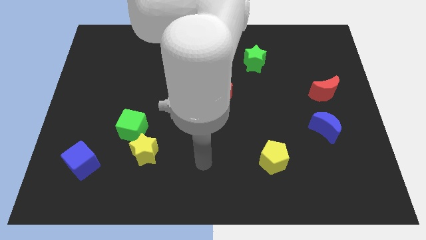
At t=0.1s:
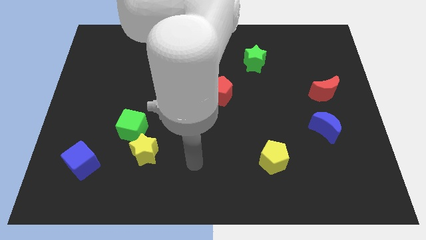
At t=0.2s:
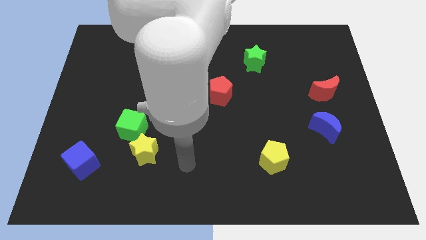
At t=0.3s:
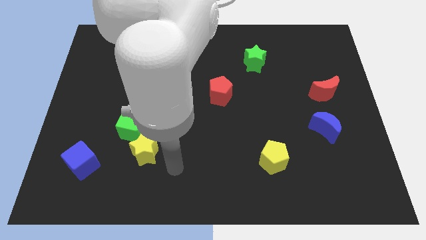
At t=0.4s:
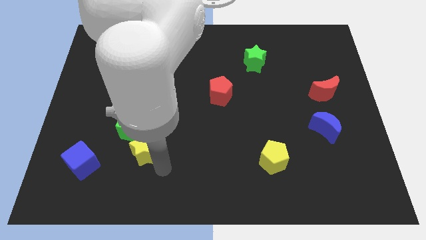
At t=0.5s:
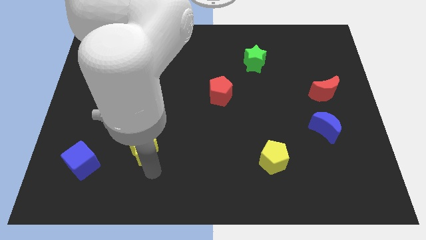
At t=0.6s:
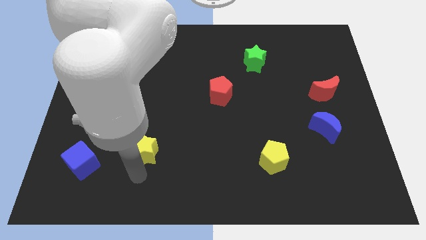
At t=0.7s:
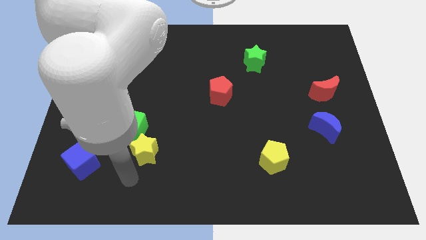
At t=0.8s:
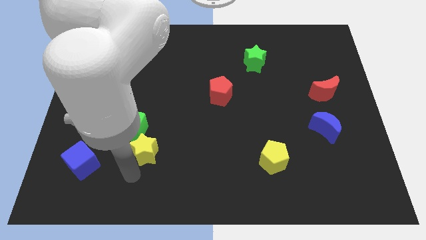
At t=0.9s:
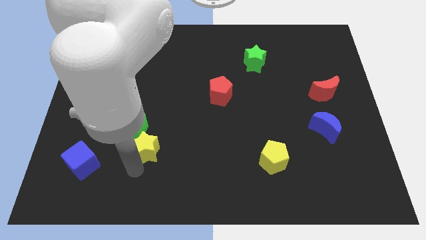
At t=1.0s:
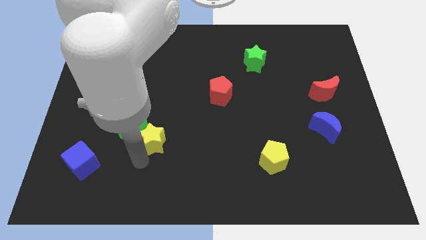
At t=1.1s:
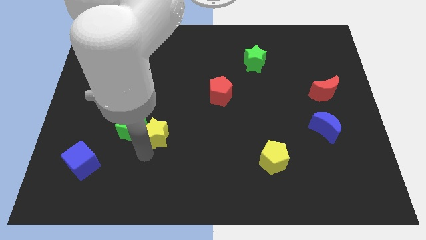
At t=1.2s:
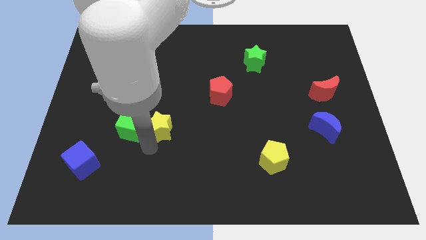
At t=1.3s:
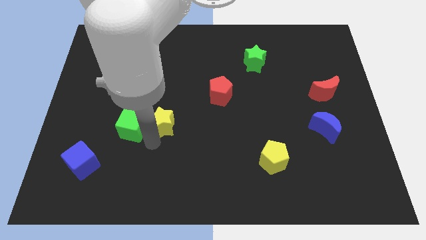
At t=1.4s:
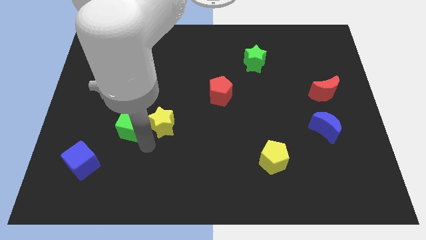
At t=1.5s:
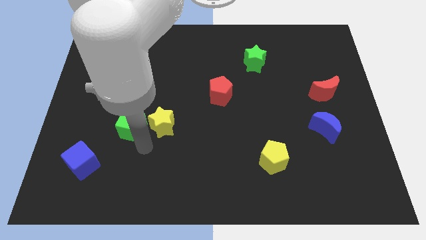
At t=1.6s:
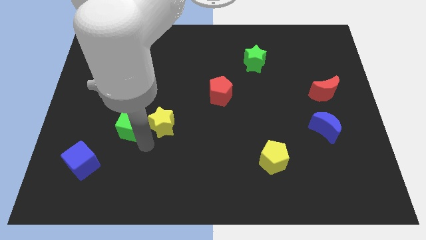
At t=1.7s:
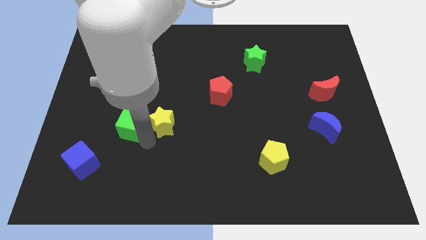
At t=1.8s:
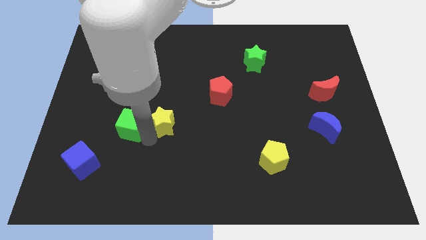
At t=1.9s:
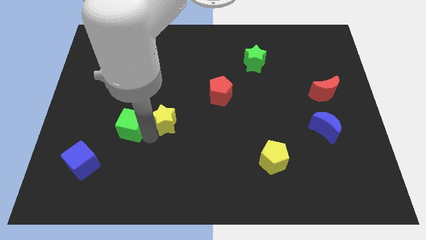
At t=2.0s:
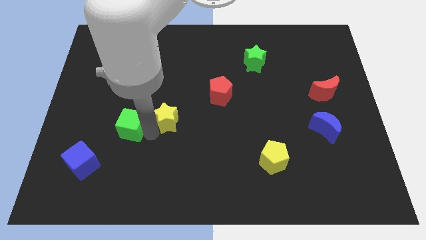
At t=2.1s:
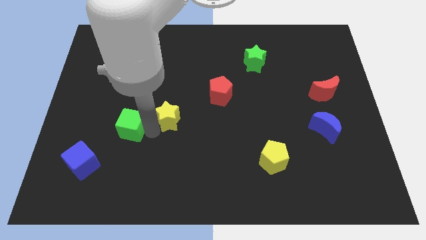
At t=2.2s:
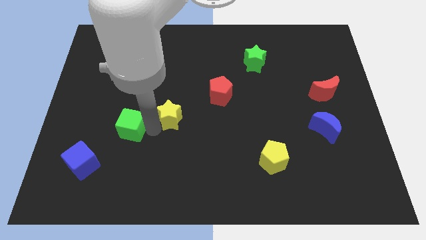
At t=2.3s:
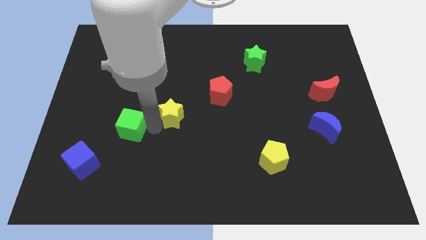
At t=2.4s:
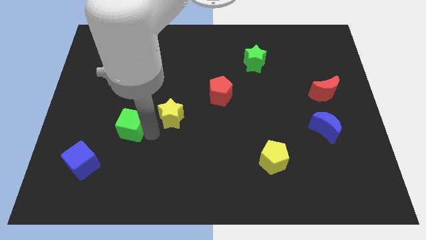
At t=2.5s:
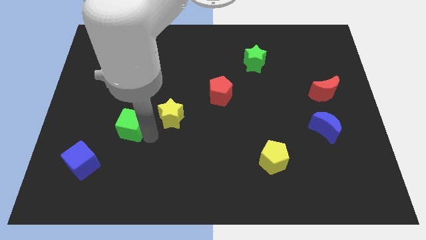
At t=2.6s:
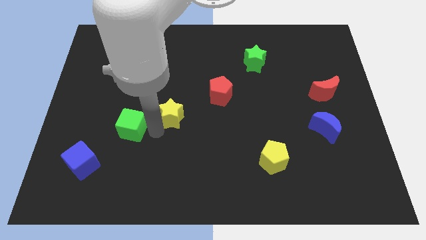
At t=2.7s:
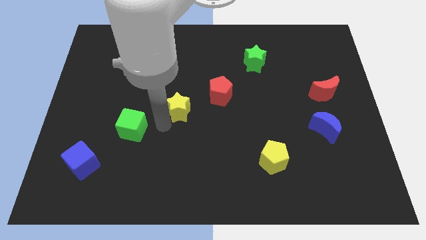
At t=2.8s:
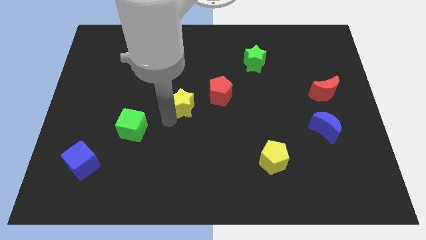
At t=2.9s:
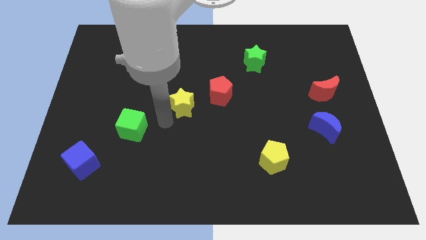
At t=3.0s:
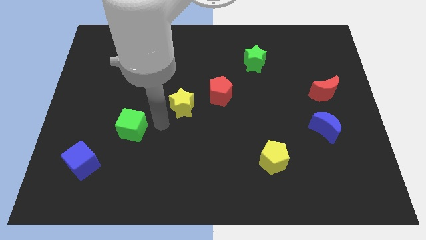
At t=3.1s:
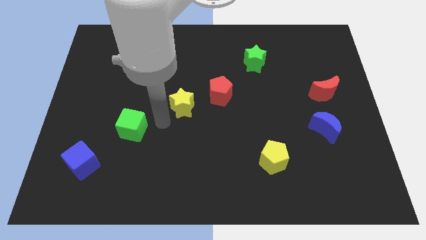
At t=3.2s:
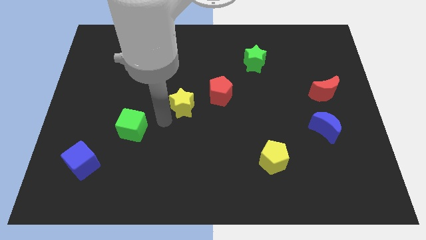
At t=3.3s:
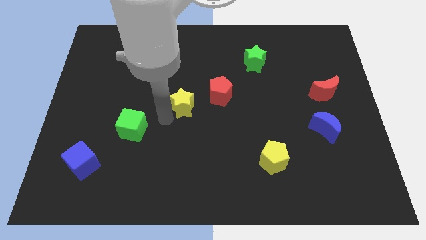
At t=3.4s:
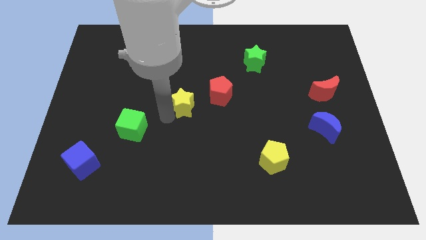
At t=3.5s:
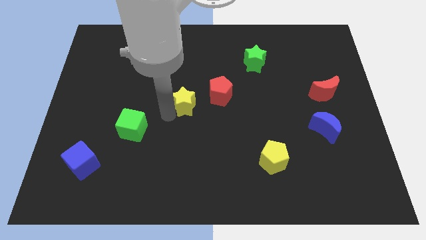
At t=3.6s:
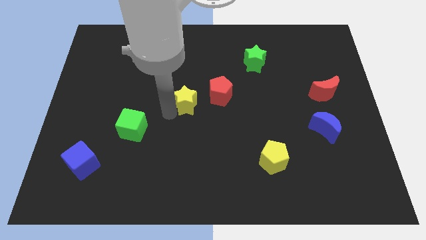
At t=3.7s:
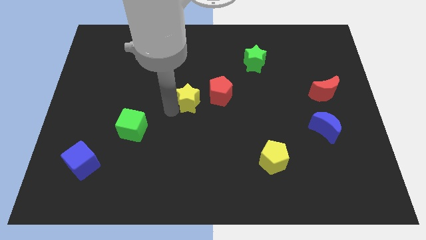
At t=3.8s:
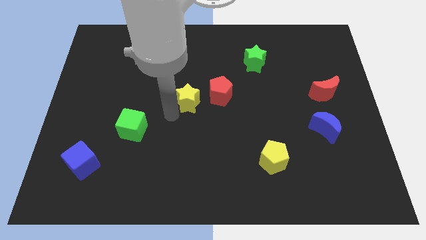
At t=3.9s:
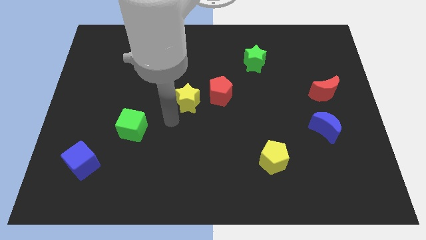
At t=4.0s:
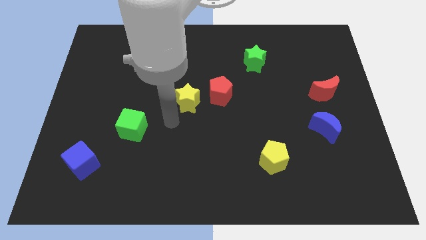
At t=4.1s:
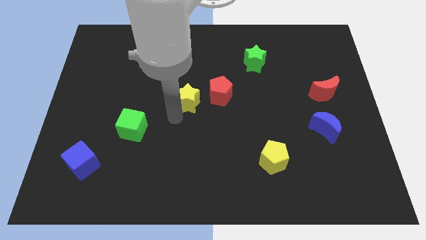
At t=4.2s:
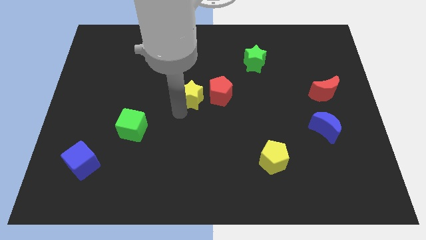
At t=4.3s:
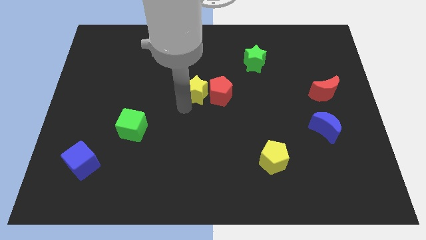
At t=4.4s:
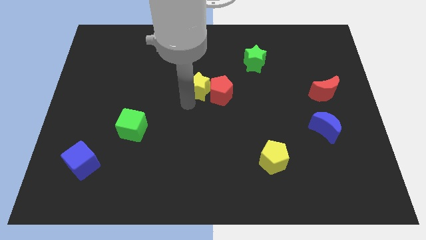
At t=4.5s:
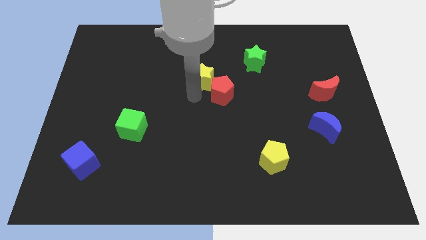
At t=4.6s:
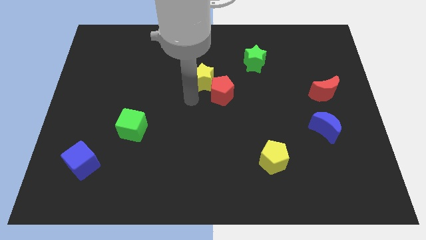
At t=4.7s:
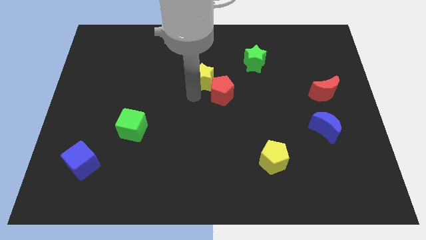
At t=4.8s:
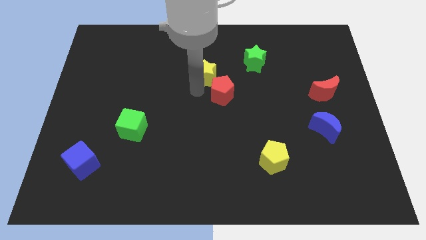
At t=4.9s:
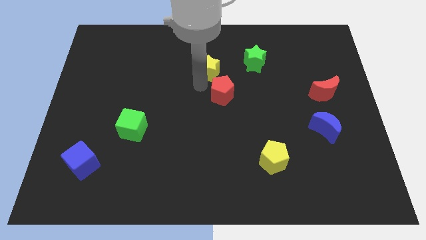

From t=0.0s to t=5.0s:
move the yellow star just left of the green star

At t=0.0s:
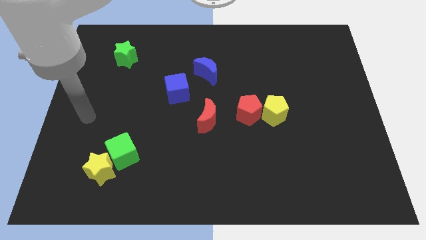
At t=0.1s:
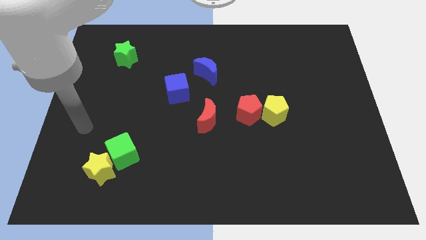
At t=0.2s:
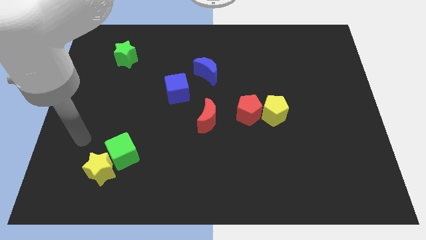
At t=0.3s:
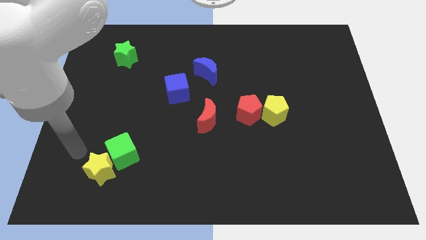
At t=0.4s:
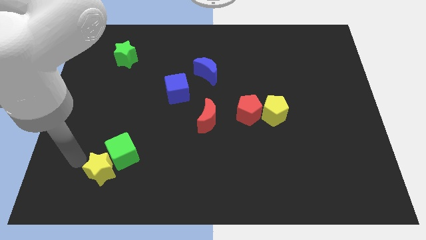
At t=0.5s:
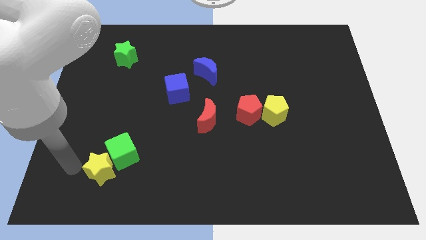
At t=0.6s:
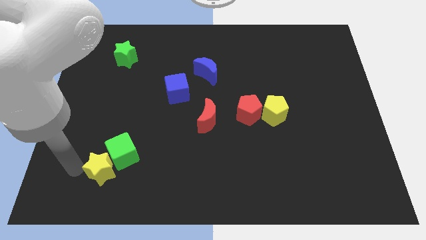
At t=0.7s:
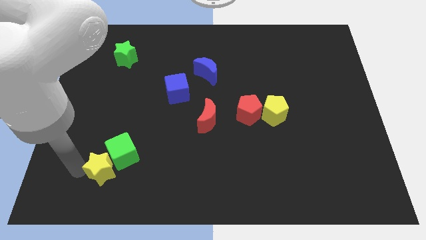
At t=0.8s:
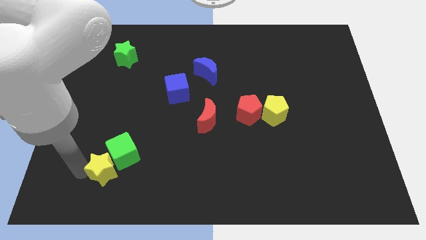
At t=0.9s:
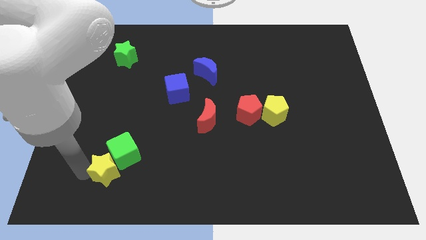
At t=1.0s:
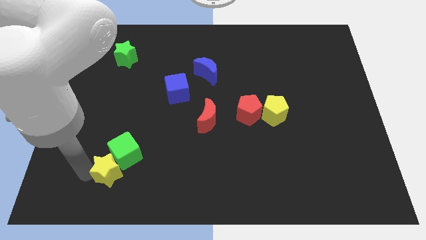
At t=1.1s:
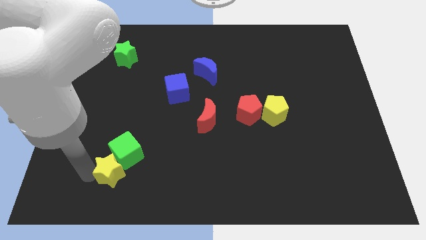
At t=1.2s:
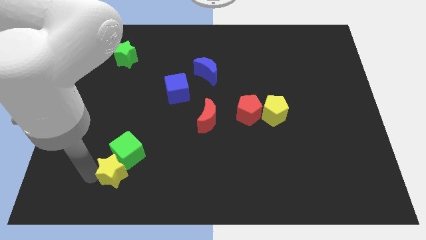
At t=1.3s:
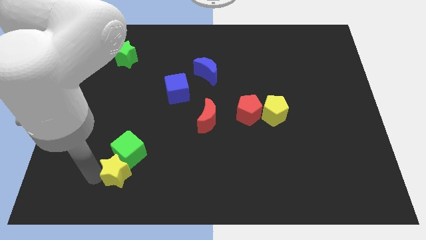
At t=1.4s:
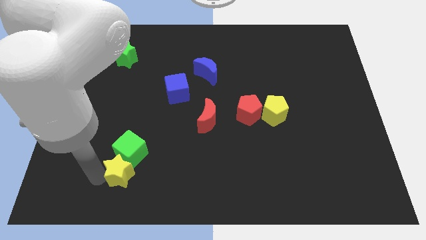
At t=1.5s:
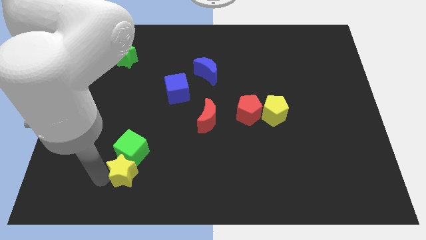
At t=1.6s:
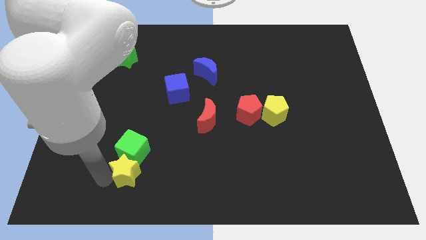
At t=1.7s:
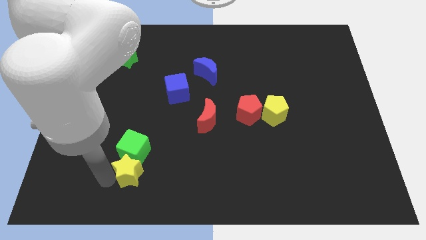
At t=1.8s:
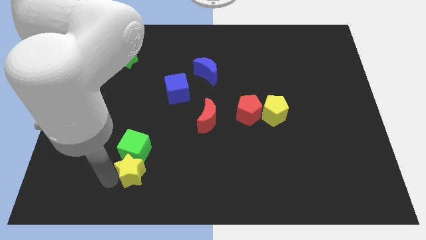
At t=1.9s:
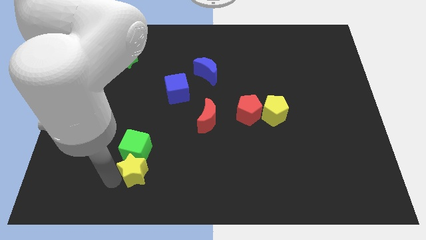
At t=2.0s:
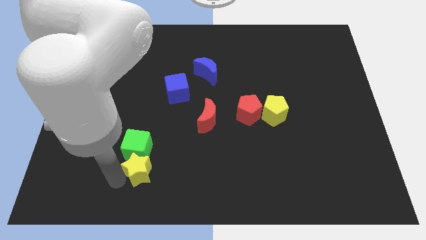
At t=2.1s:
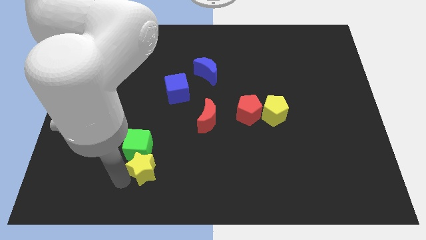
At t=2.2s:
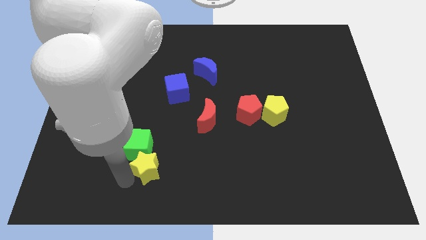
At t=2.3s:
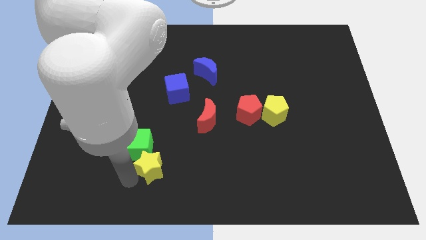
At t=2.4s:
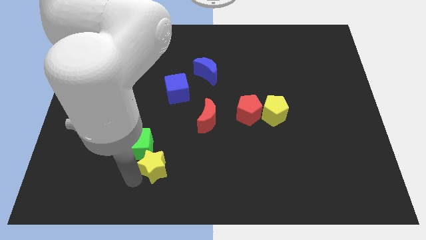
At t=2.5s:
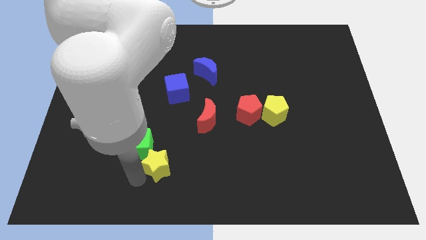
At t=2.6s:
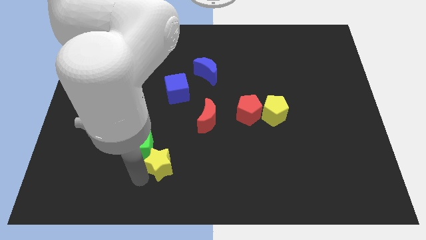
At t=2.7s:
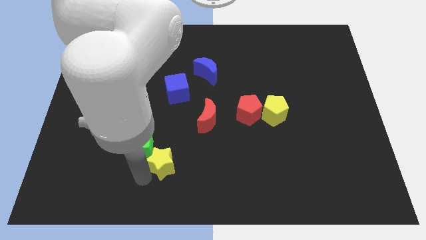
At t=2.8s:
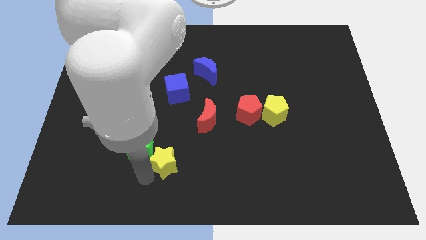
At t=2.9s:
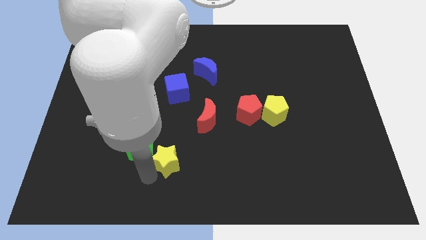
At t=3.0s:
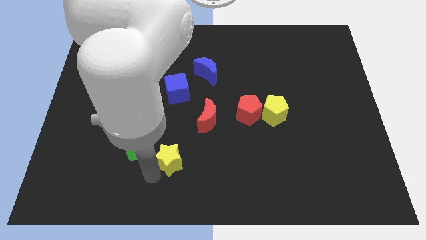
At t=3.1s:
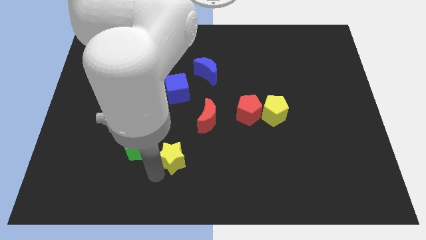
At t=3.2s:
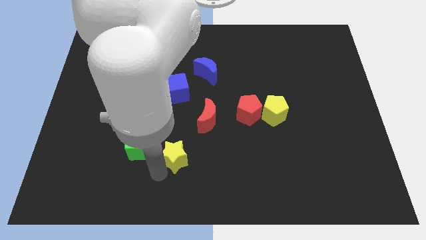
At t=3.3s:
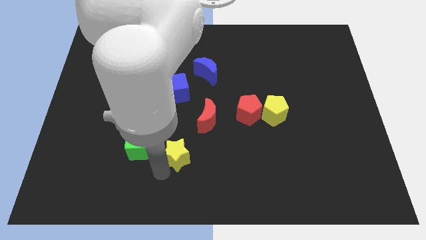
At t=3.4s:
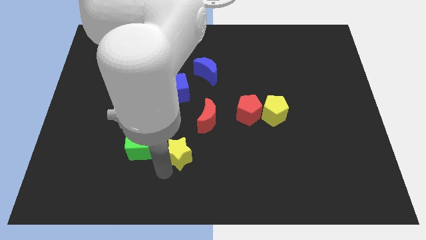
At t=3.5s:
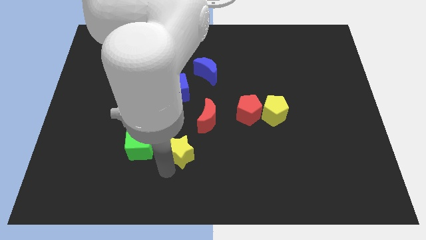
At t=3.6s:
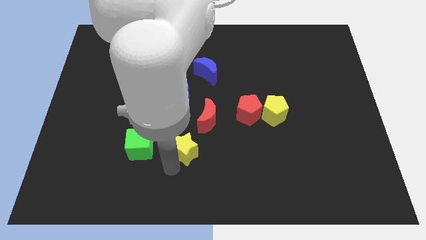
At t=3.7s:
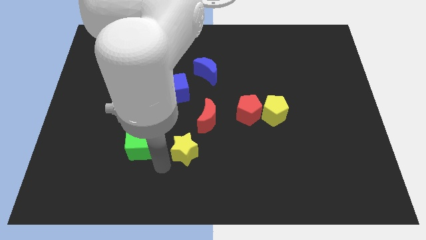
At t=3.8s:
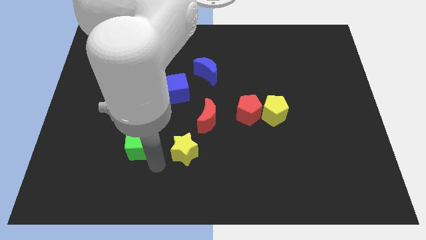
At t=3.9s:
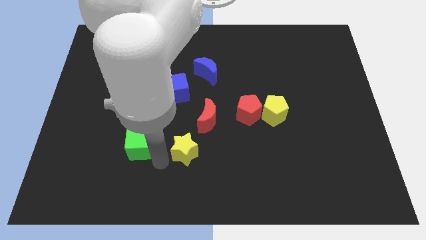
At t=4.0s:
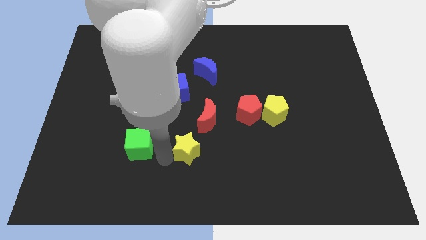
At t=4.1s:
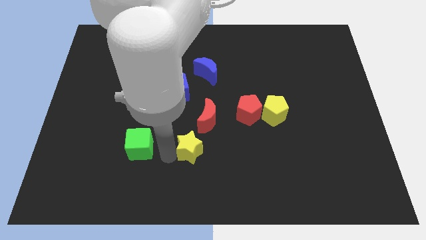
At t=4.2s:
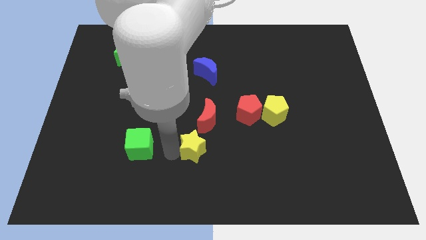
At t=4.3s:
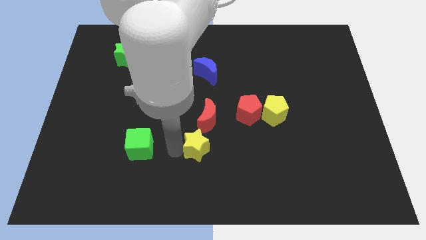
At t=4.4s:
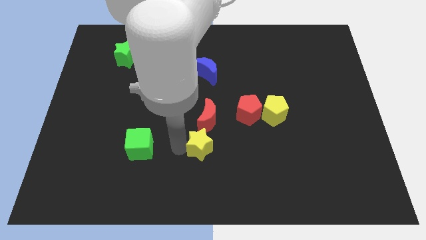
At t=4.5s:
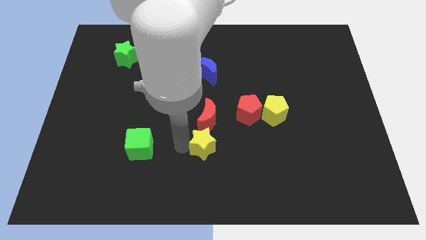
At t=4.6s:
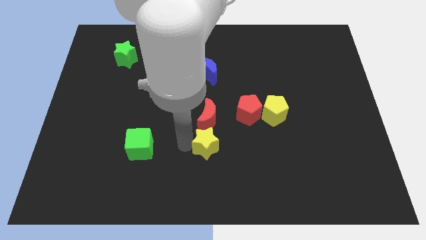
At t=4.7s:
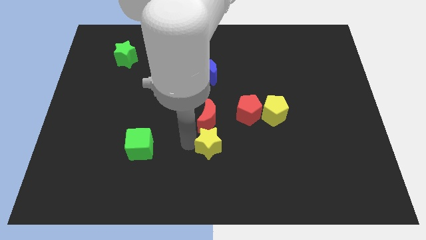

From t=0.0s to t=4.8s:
put the yellow star diagonally down and to the left of the red pentagon
